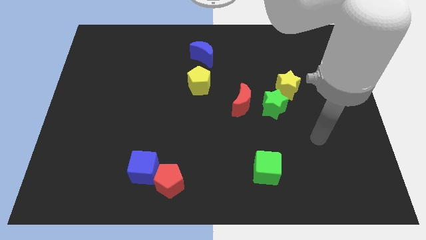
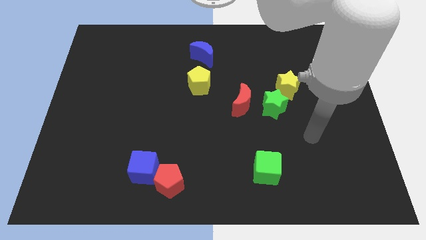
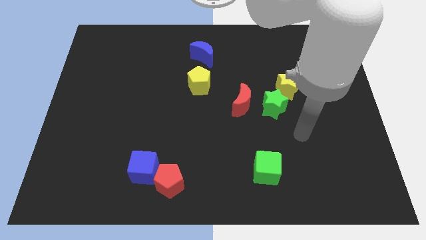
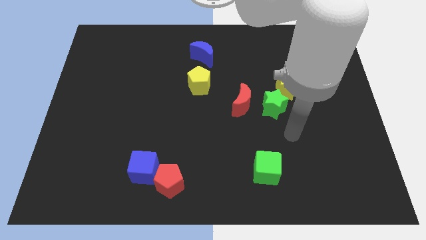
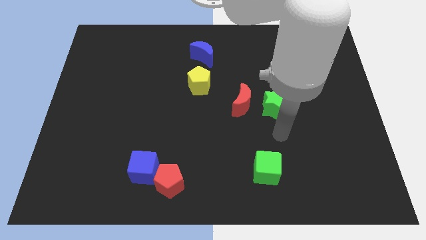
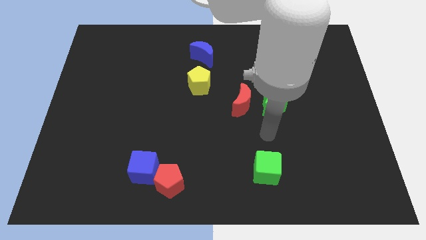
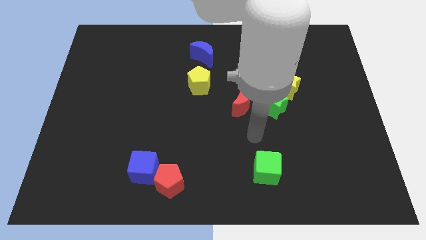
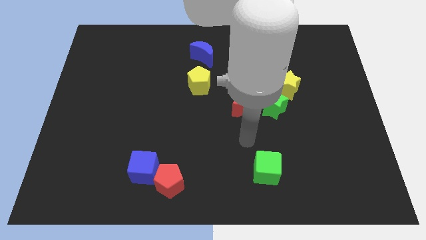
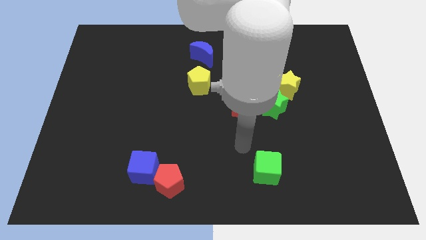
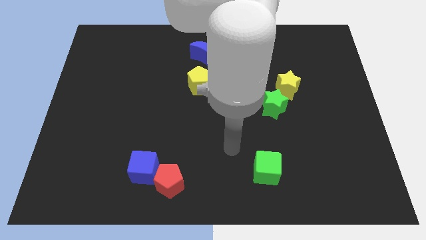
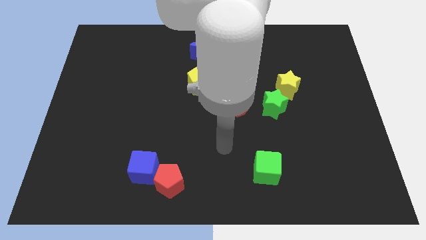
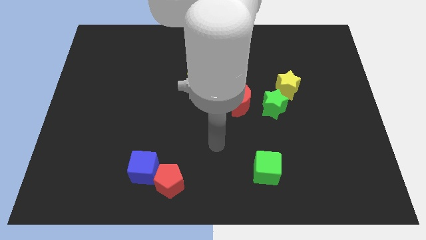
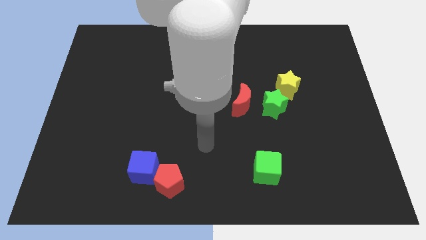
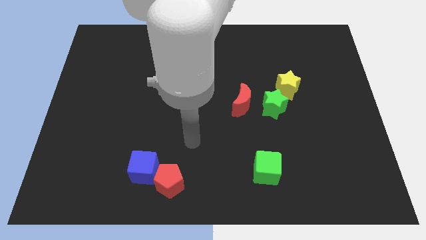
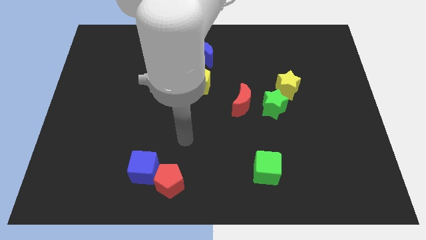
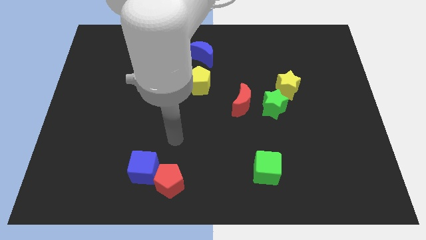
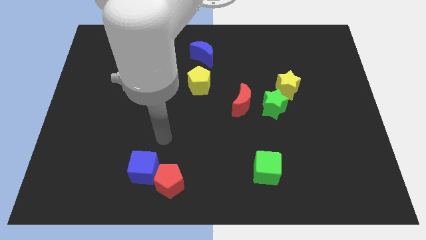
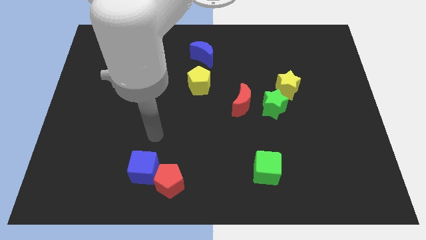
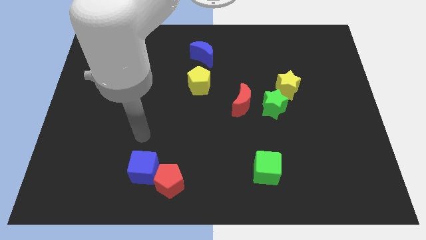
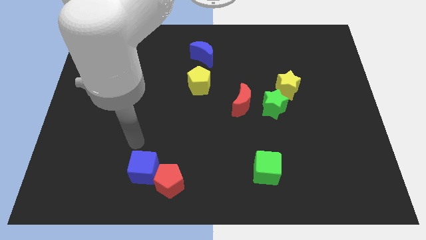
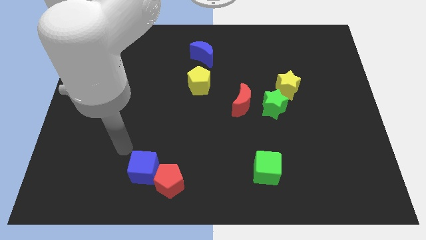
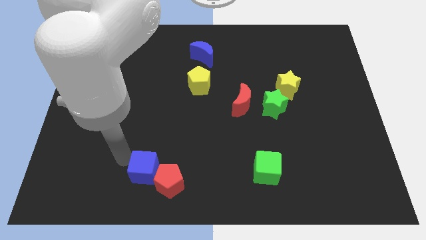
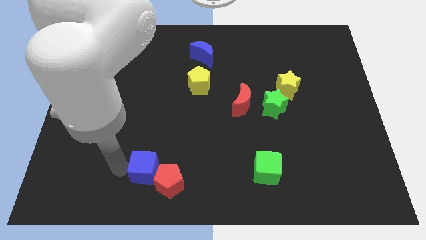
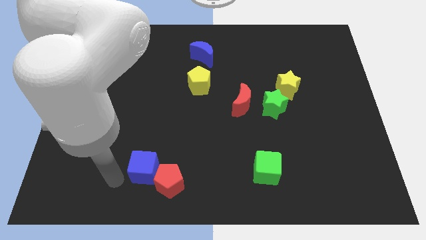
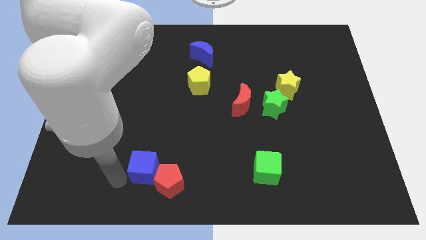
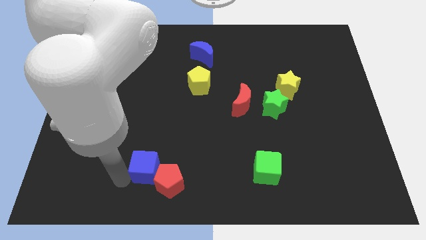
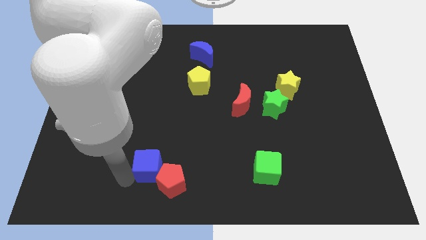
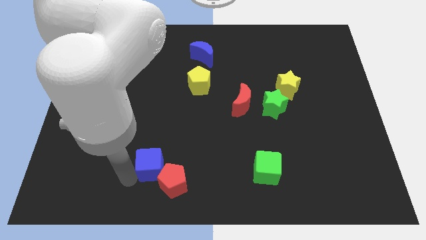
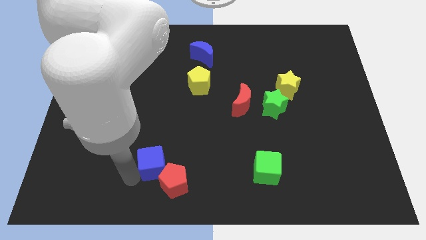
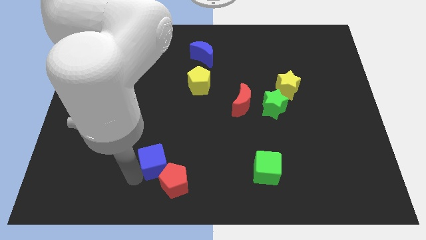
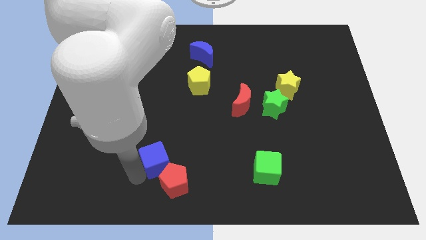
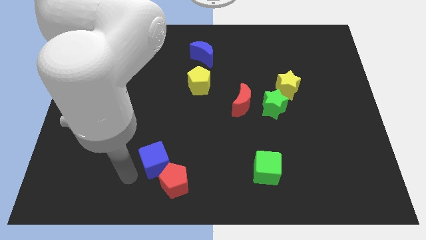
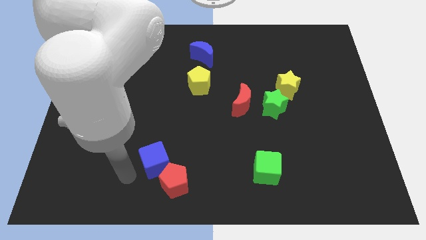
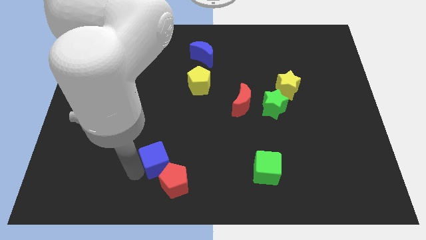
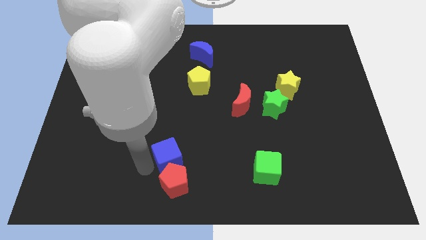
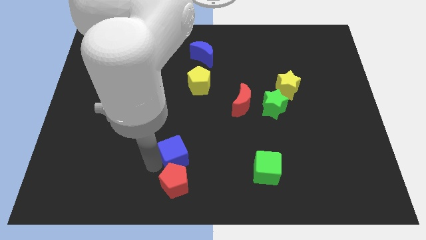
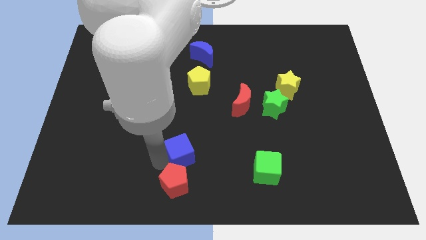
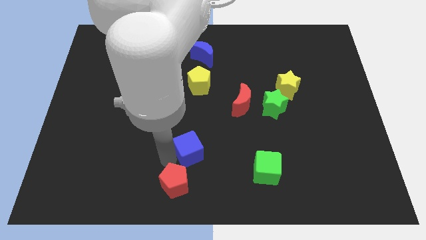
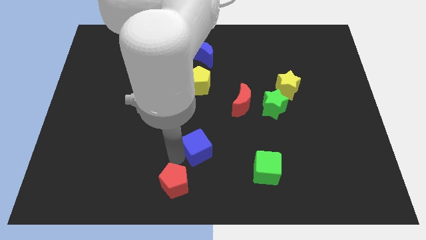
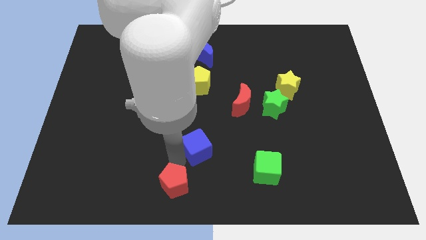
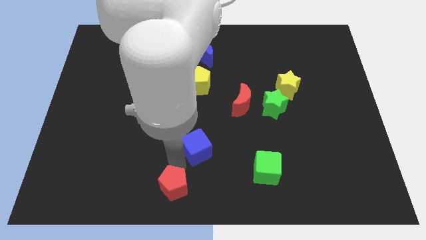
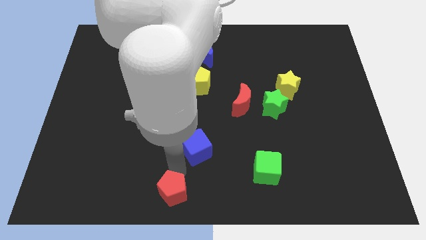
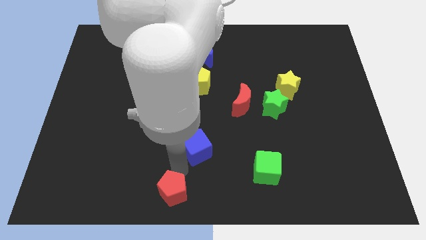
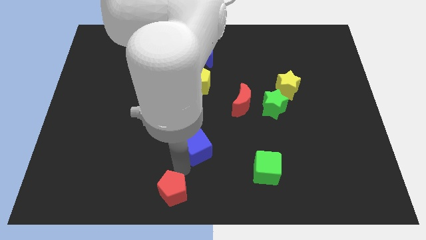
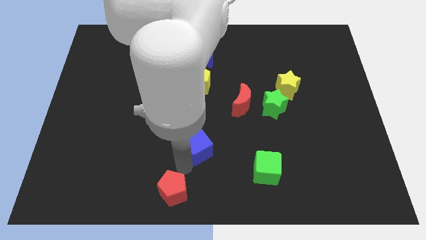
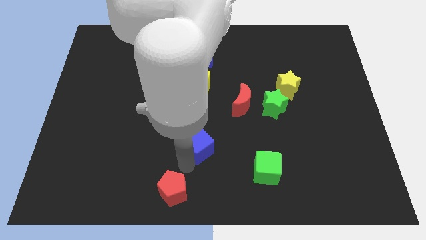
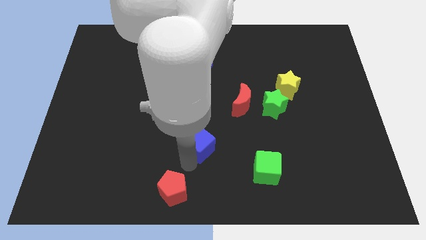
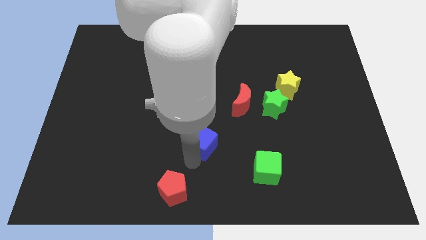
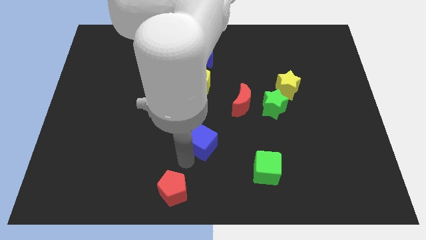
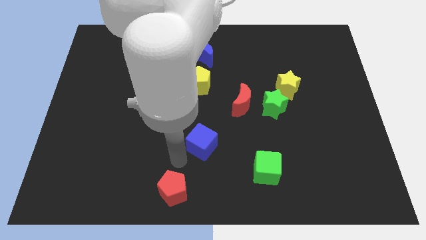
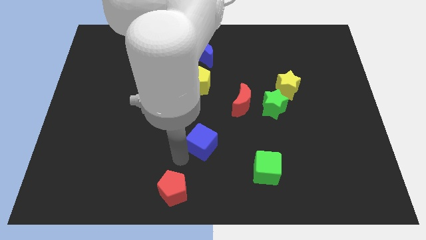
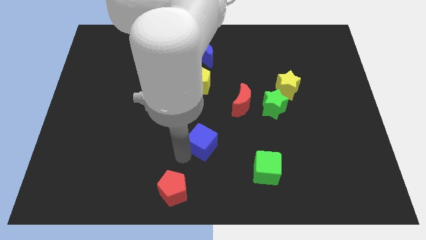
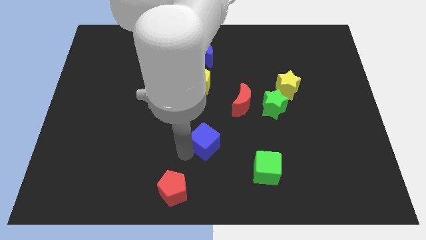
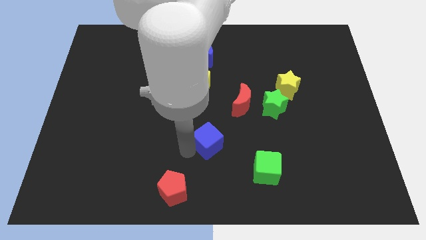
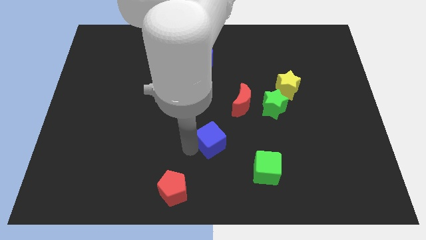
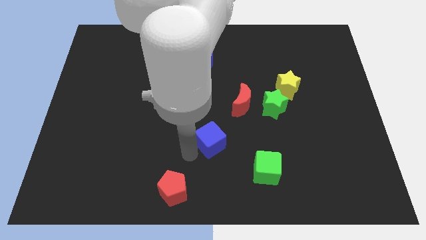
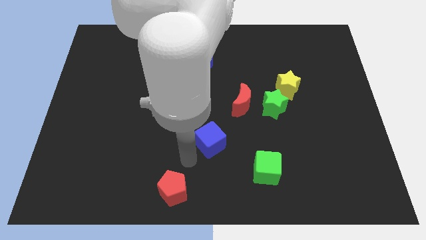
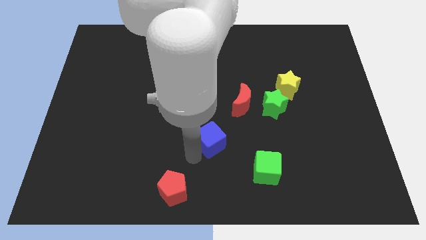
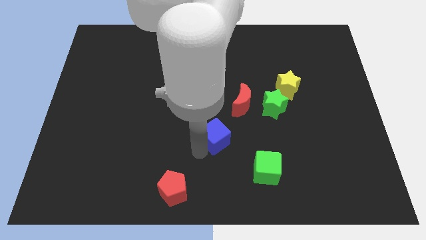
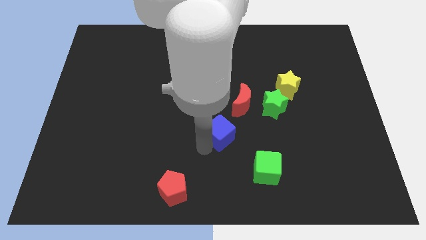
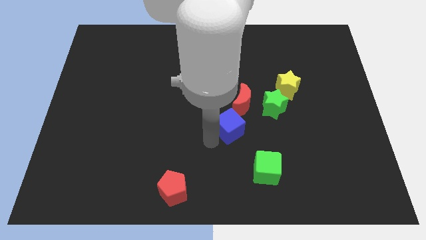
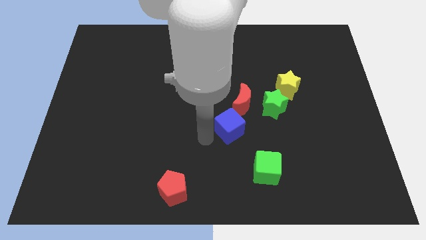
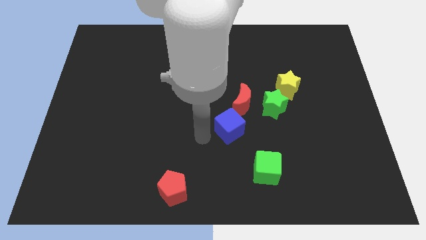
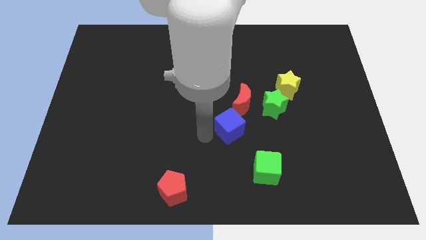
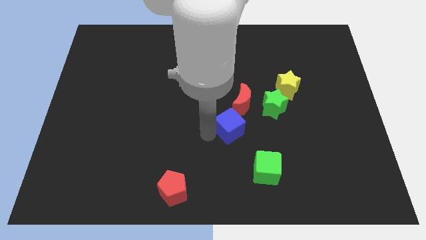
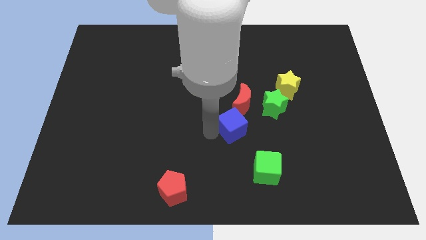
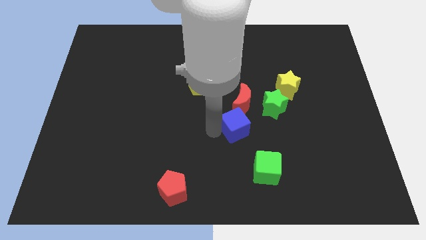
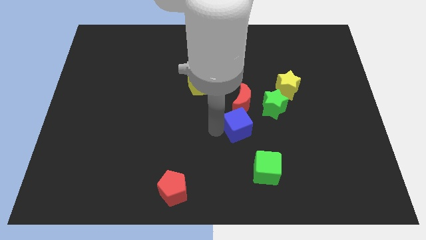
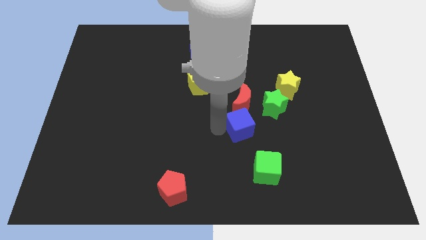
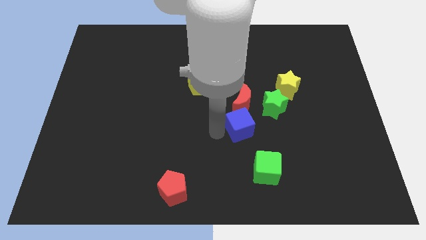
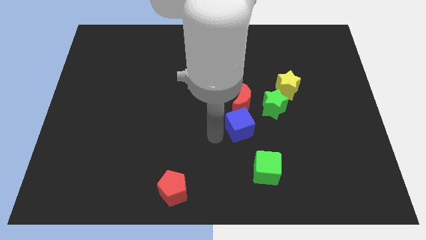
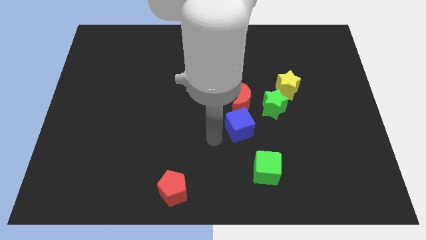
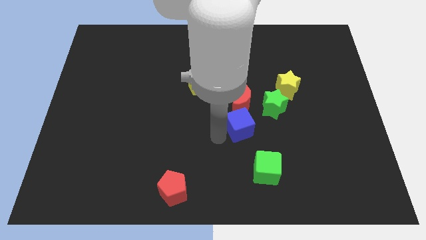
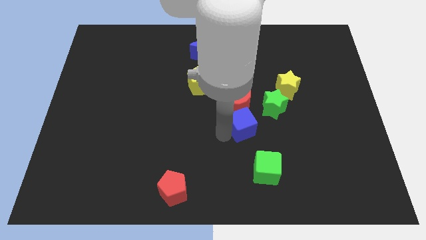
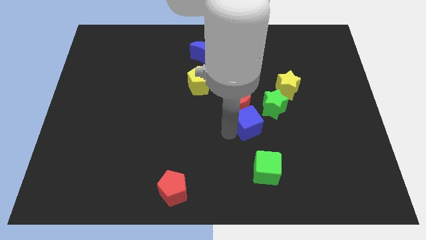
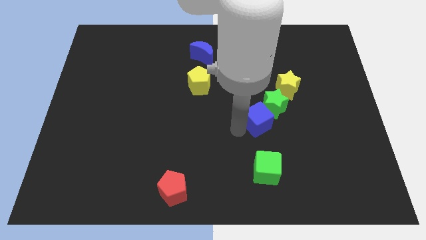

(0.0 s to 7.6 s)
move the blue cube next to the green star
